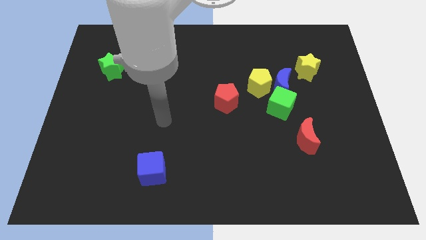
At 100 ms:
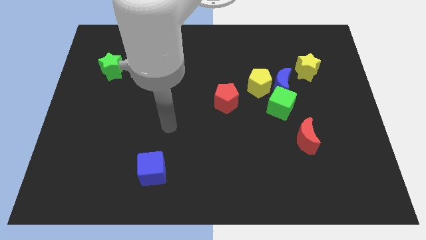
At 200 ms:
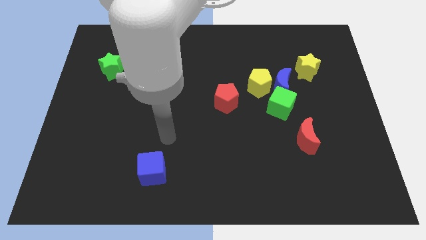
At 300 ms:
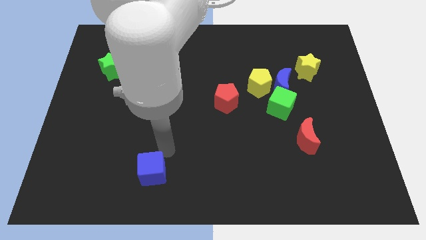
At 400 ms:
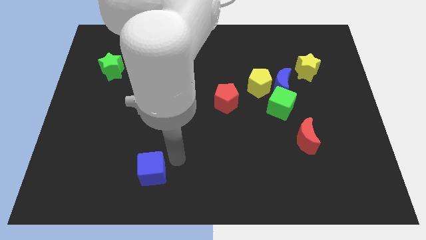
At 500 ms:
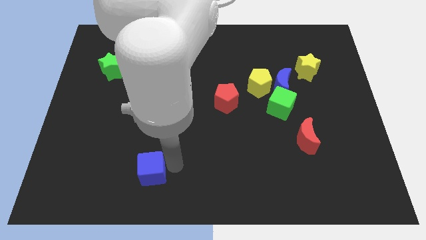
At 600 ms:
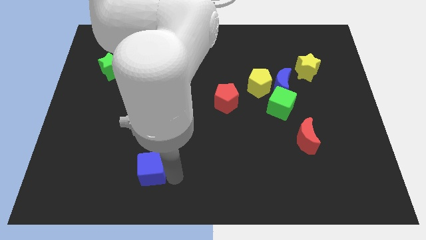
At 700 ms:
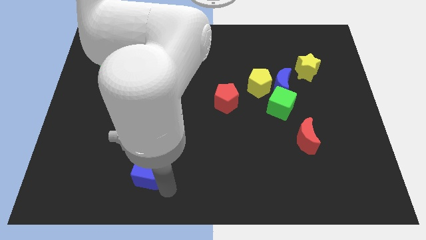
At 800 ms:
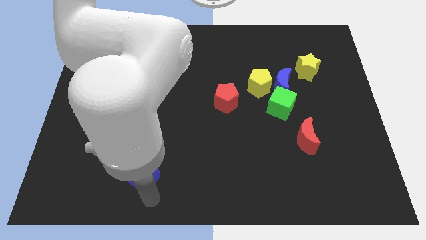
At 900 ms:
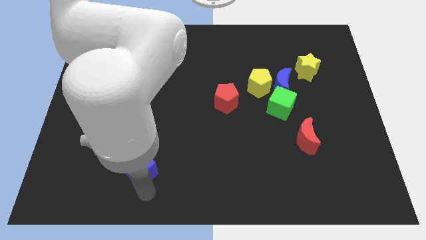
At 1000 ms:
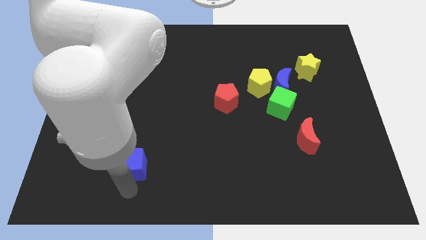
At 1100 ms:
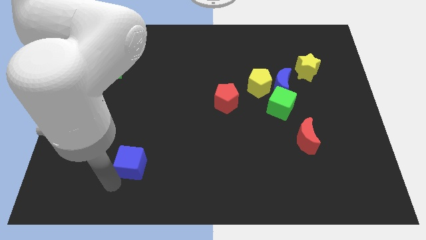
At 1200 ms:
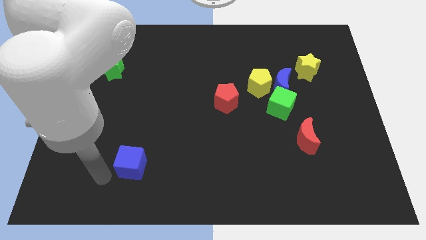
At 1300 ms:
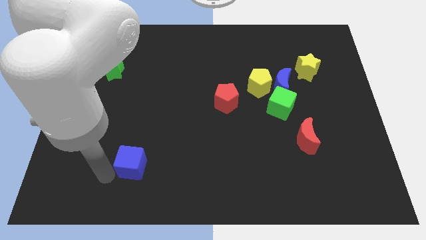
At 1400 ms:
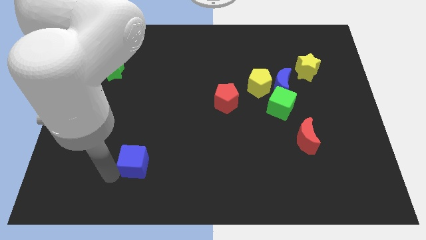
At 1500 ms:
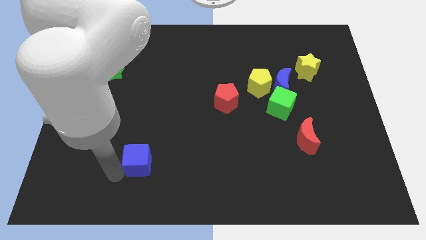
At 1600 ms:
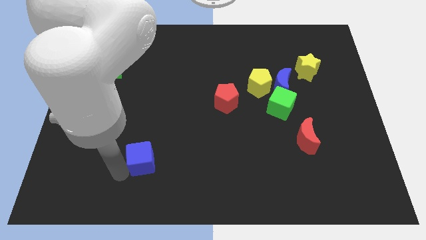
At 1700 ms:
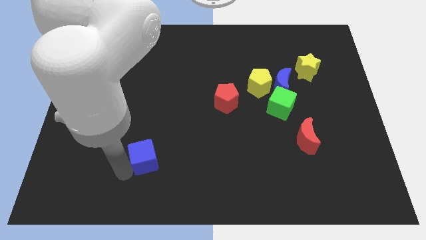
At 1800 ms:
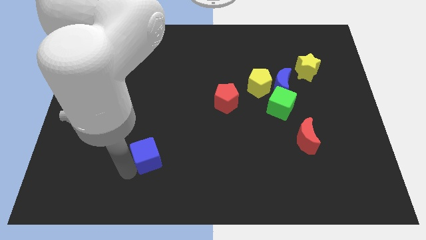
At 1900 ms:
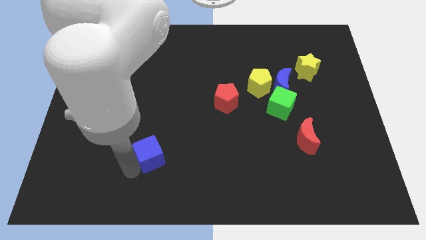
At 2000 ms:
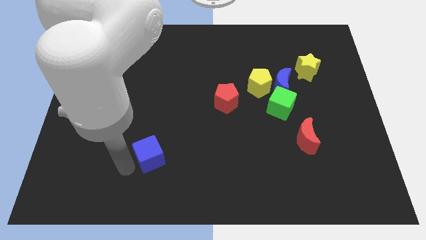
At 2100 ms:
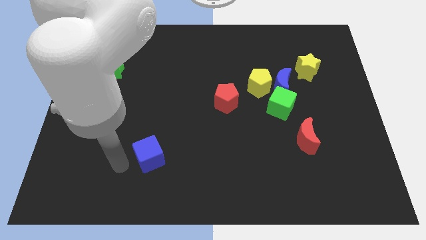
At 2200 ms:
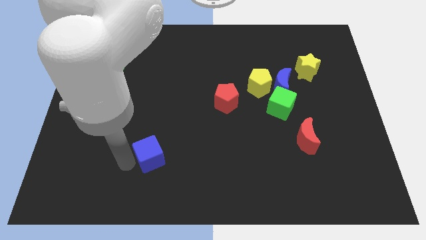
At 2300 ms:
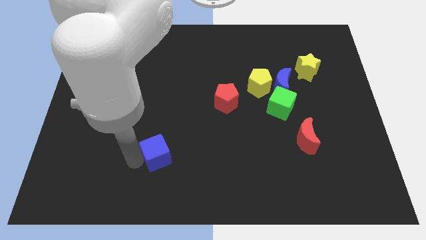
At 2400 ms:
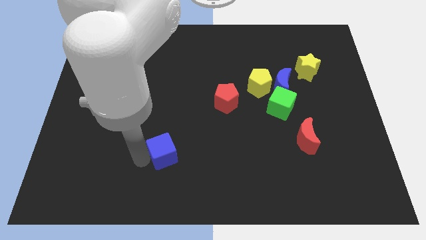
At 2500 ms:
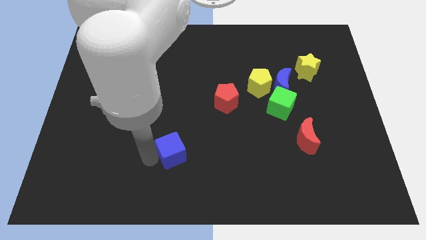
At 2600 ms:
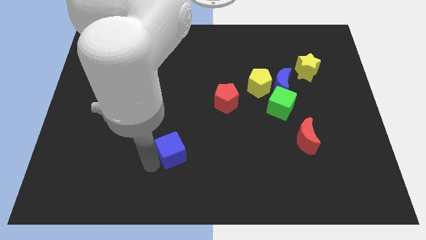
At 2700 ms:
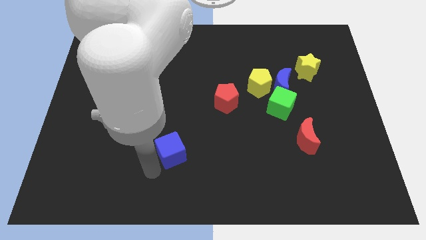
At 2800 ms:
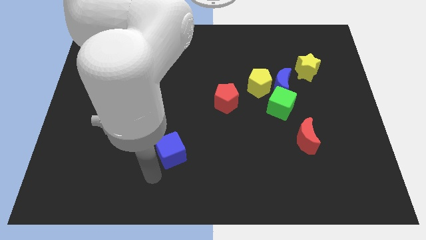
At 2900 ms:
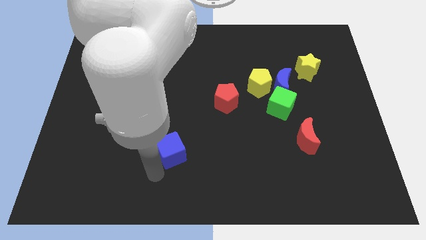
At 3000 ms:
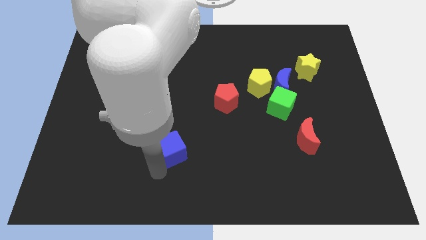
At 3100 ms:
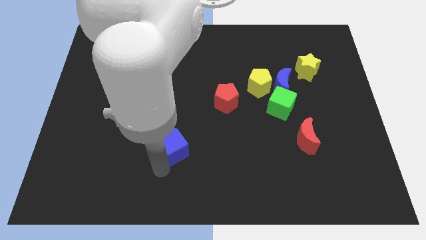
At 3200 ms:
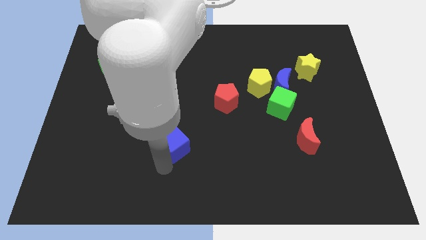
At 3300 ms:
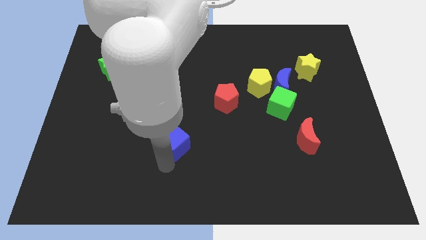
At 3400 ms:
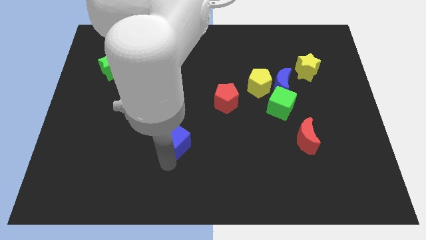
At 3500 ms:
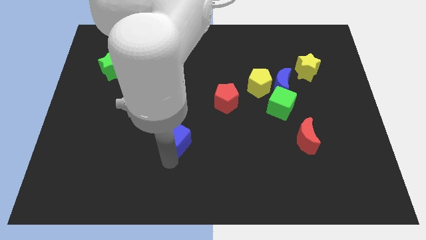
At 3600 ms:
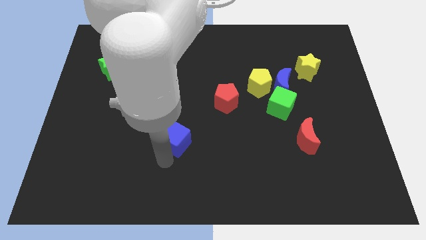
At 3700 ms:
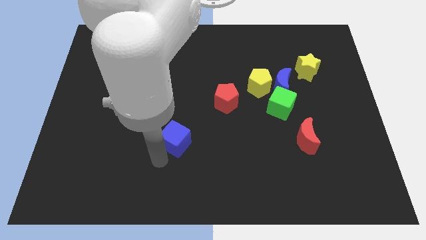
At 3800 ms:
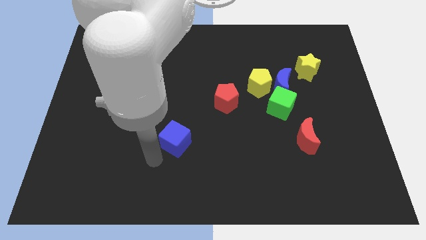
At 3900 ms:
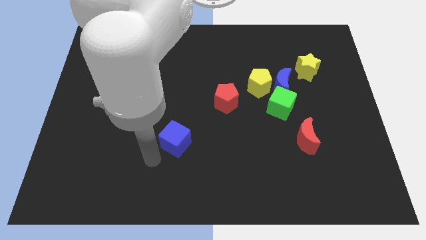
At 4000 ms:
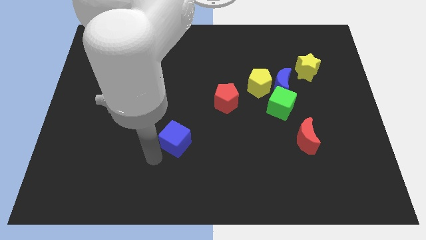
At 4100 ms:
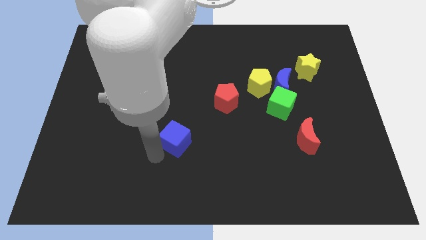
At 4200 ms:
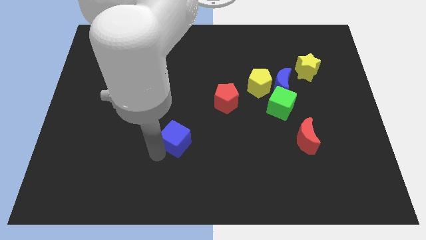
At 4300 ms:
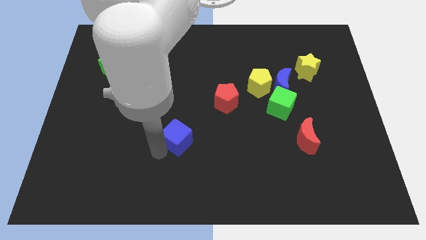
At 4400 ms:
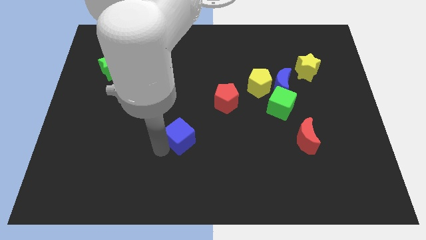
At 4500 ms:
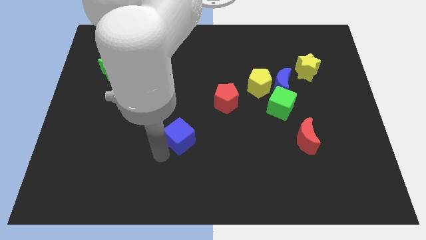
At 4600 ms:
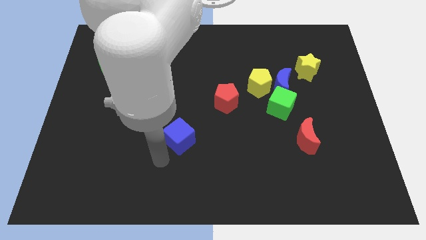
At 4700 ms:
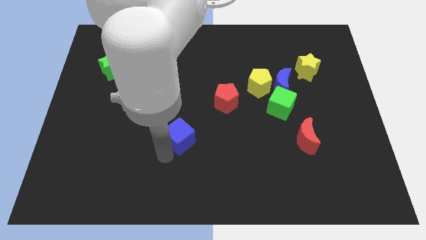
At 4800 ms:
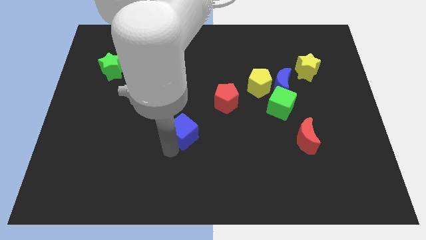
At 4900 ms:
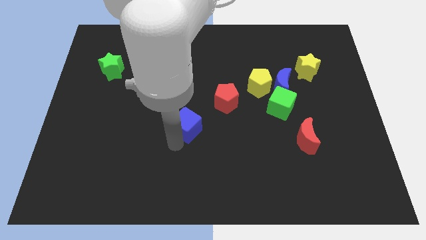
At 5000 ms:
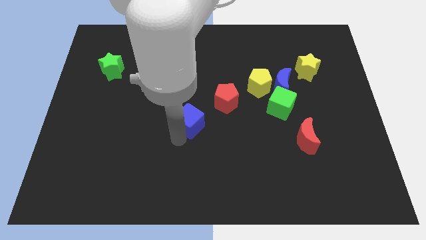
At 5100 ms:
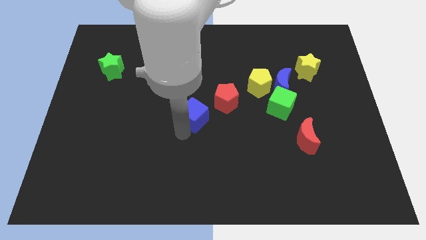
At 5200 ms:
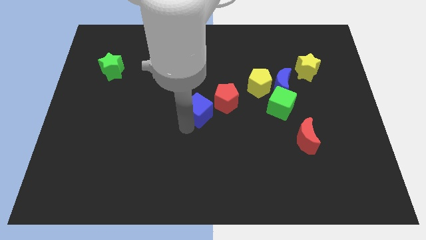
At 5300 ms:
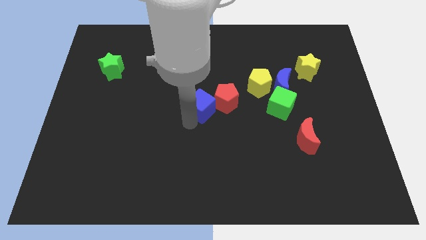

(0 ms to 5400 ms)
put the blue cube next to the red pentagon

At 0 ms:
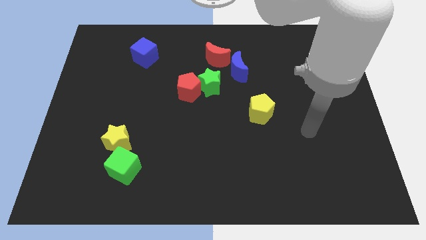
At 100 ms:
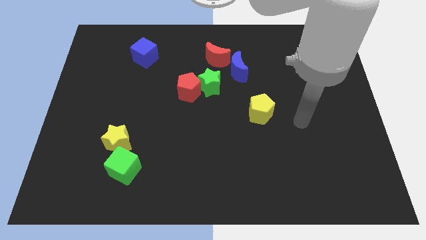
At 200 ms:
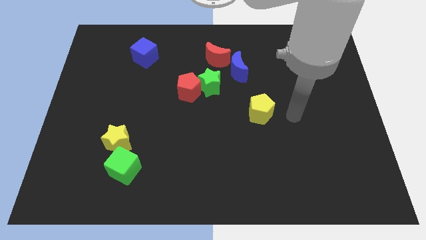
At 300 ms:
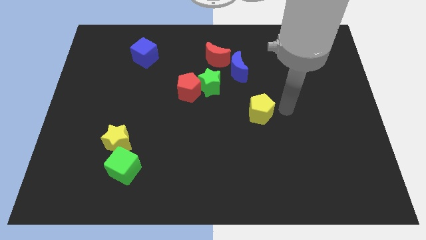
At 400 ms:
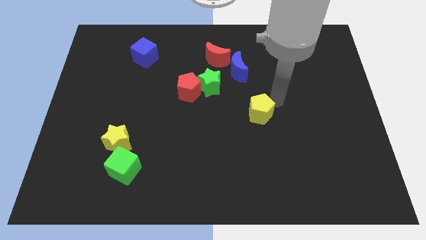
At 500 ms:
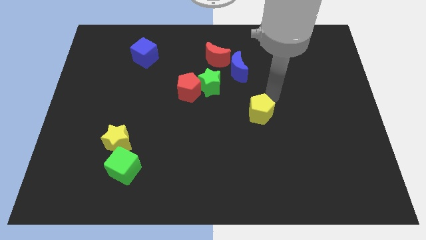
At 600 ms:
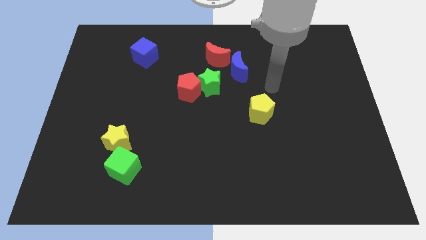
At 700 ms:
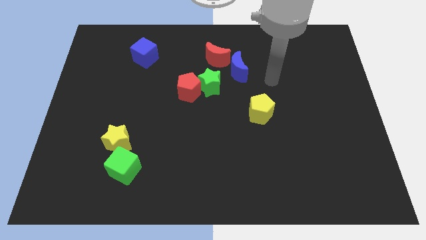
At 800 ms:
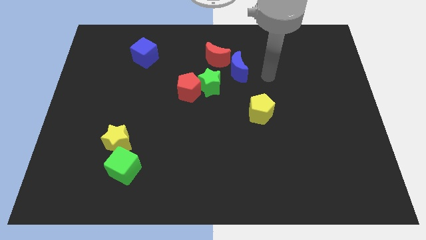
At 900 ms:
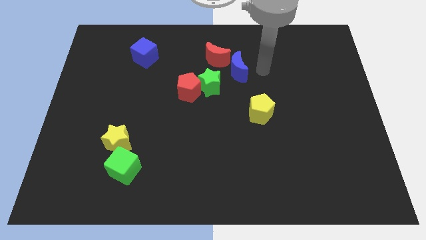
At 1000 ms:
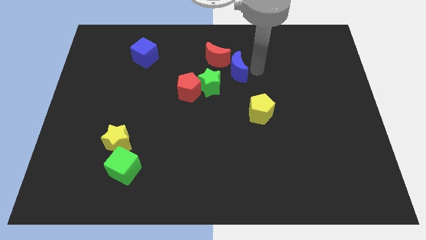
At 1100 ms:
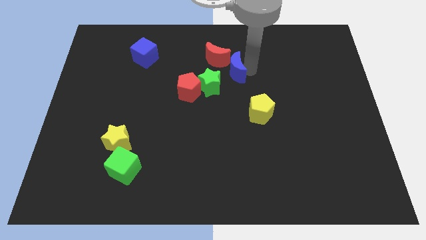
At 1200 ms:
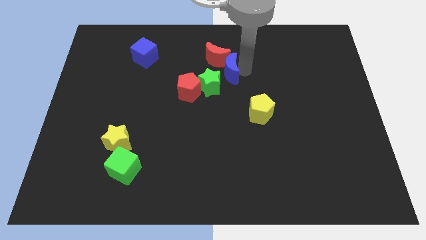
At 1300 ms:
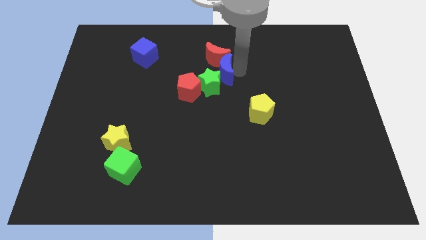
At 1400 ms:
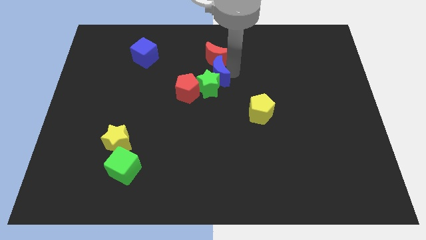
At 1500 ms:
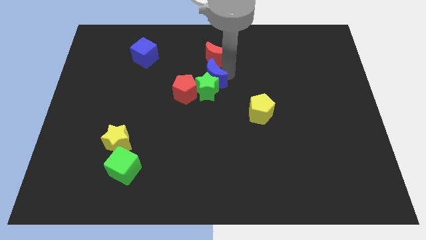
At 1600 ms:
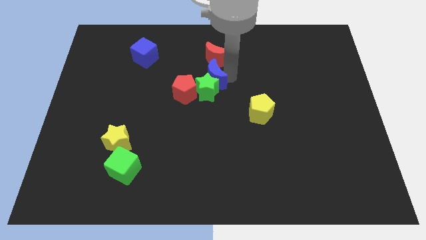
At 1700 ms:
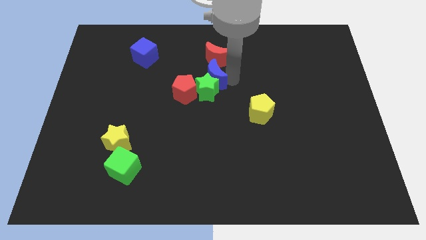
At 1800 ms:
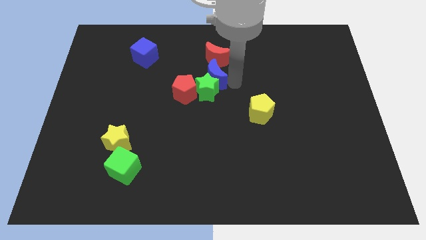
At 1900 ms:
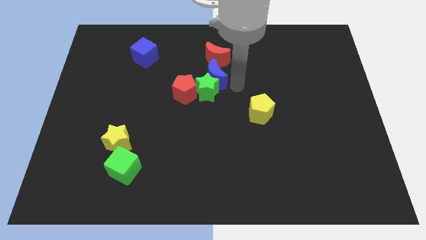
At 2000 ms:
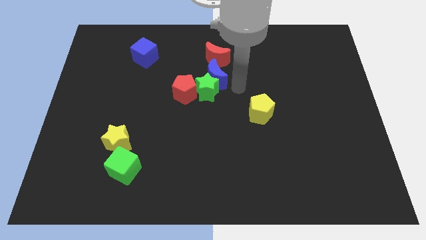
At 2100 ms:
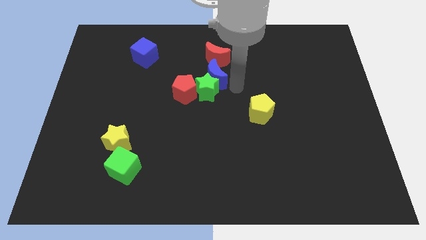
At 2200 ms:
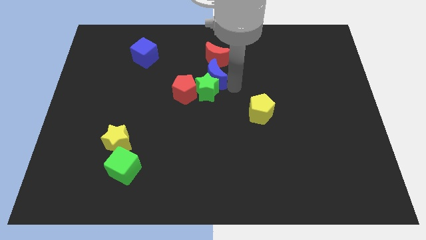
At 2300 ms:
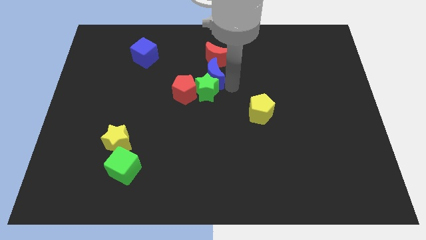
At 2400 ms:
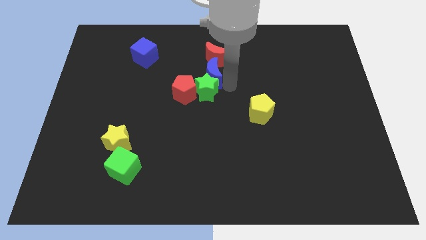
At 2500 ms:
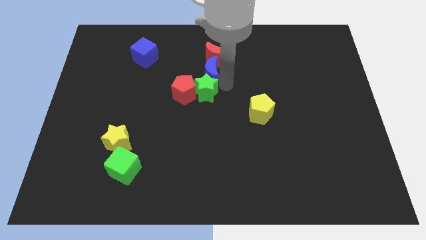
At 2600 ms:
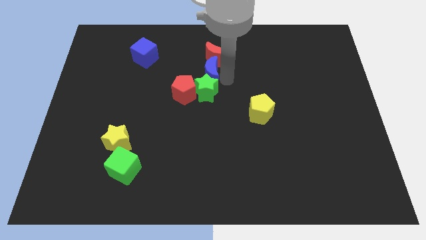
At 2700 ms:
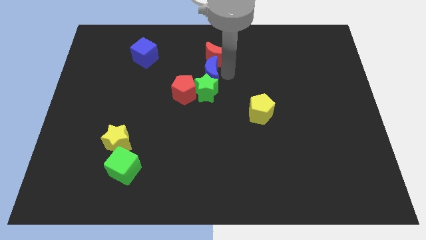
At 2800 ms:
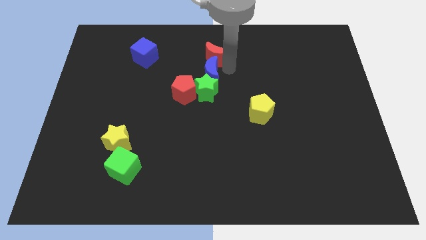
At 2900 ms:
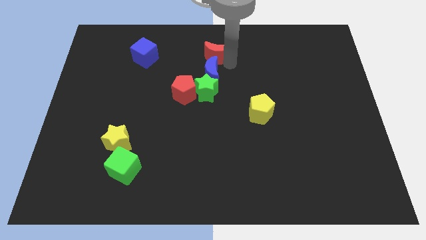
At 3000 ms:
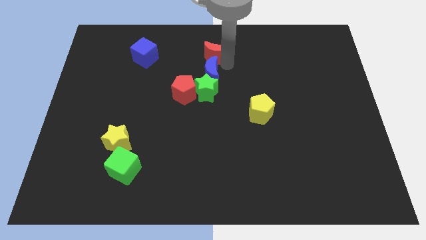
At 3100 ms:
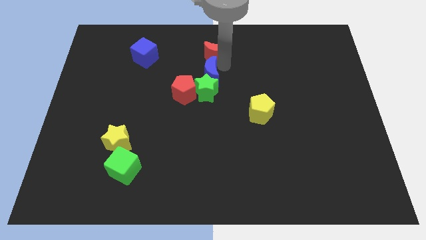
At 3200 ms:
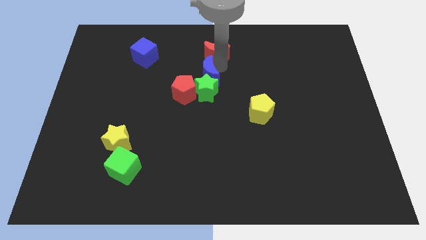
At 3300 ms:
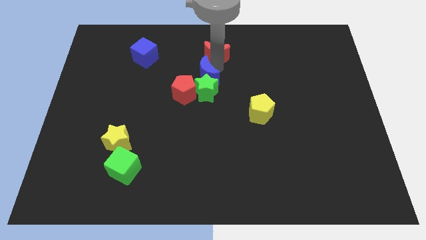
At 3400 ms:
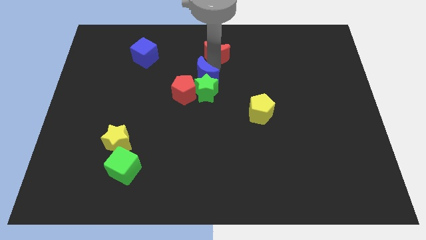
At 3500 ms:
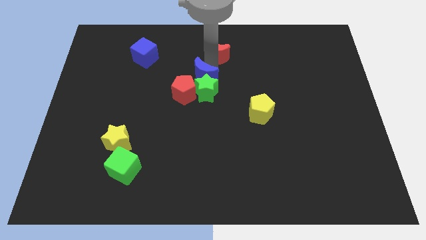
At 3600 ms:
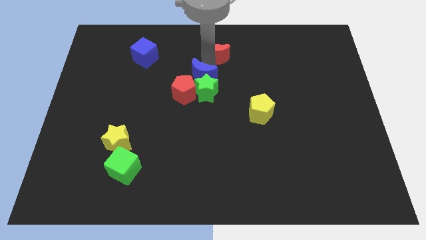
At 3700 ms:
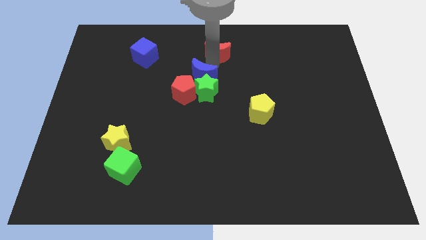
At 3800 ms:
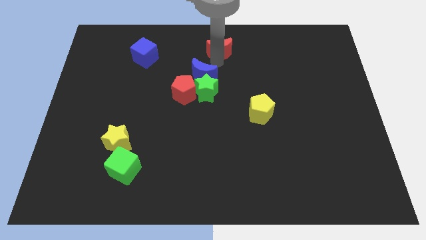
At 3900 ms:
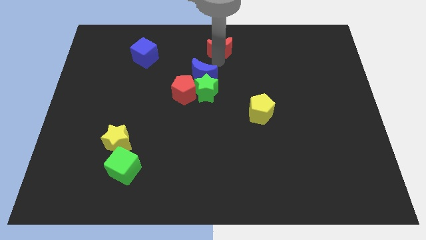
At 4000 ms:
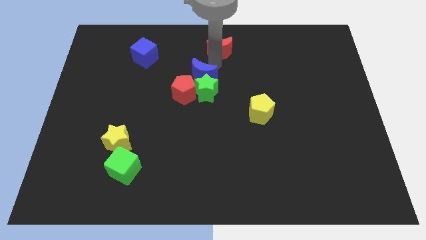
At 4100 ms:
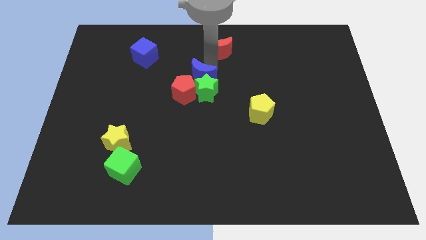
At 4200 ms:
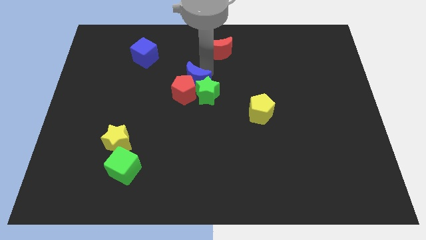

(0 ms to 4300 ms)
push the blue moon next to the red pentagon
